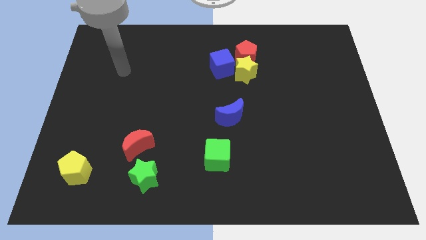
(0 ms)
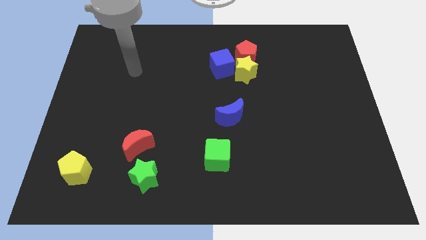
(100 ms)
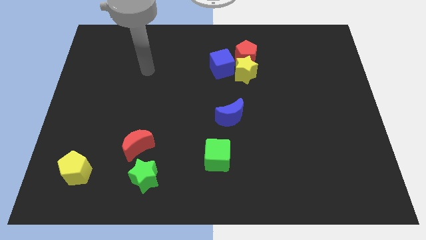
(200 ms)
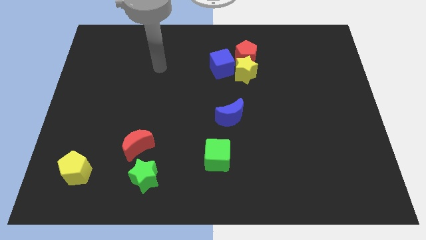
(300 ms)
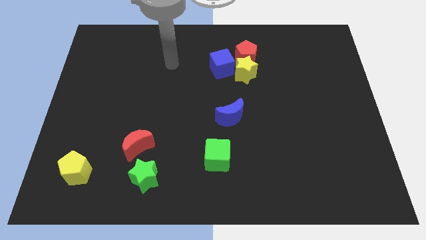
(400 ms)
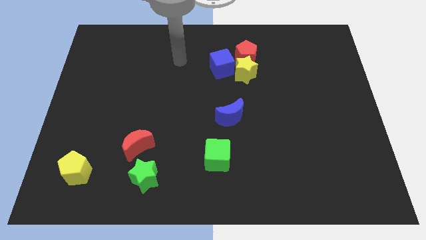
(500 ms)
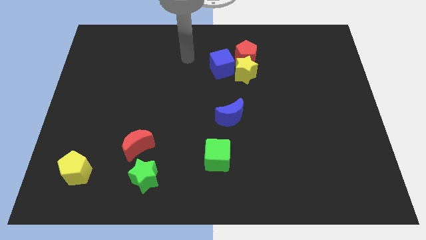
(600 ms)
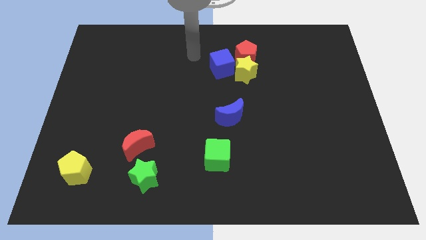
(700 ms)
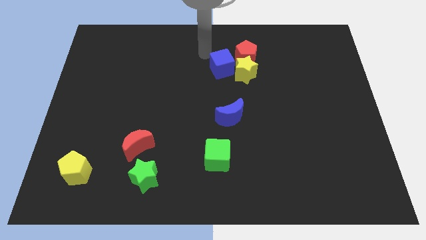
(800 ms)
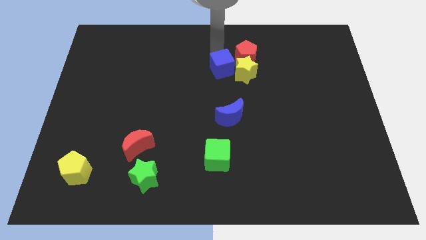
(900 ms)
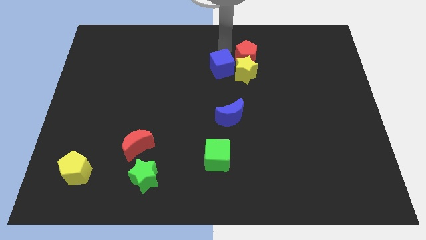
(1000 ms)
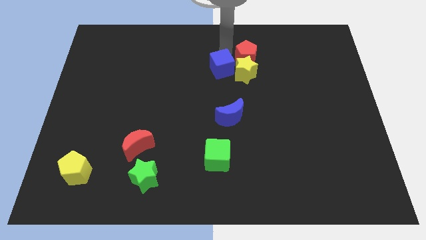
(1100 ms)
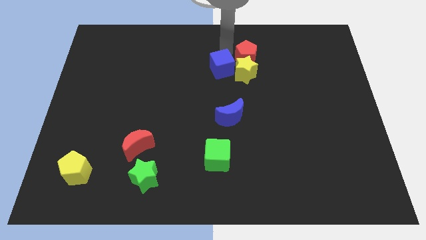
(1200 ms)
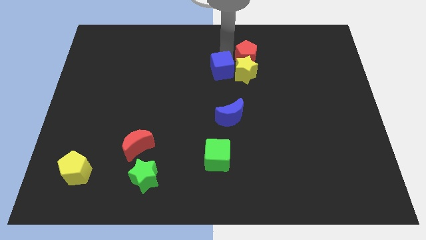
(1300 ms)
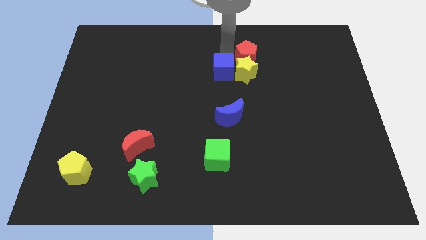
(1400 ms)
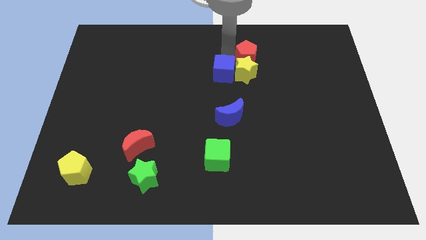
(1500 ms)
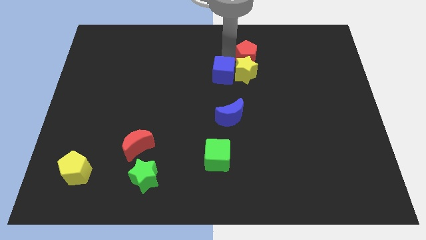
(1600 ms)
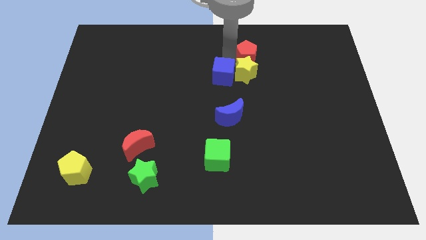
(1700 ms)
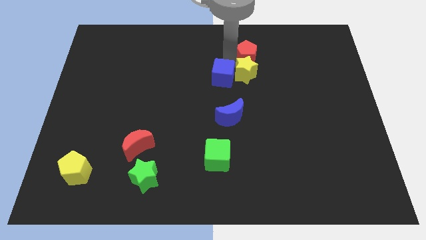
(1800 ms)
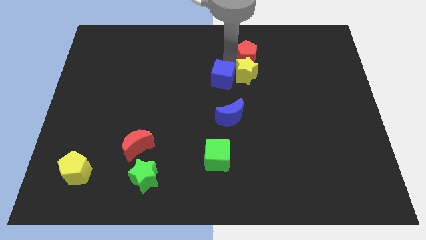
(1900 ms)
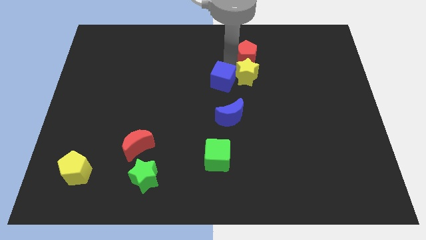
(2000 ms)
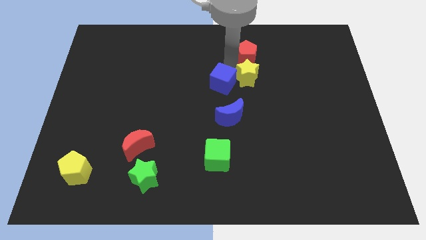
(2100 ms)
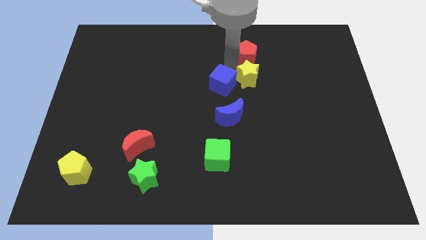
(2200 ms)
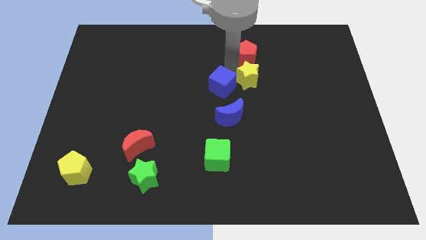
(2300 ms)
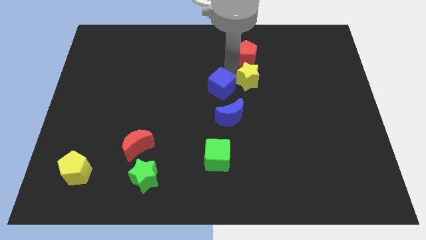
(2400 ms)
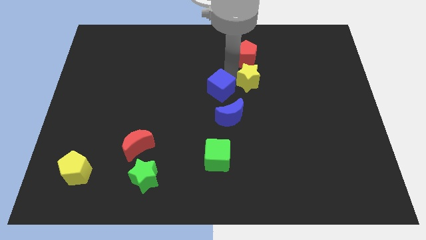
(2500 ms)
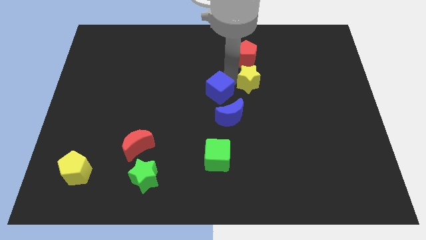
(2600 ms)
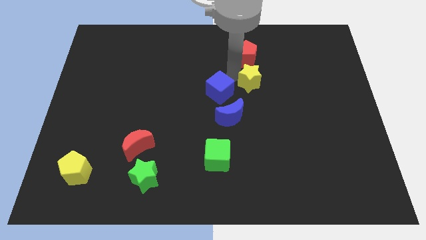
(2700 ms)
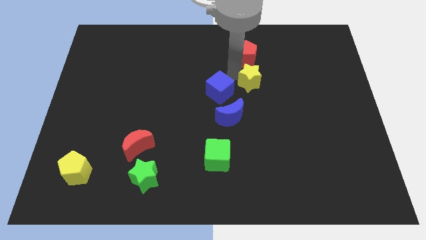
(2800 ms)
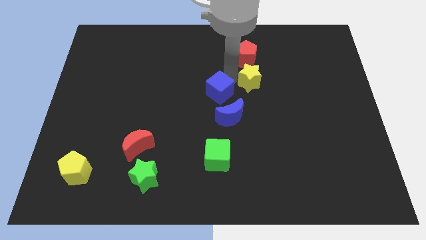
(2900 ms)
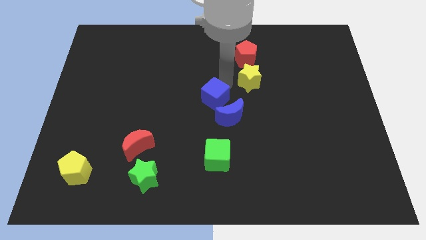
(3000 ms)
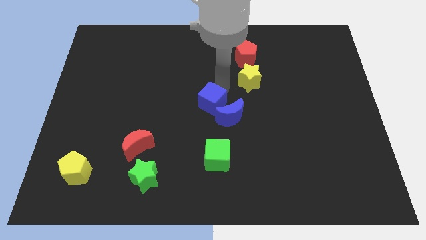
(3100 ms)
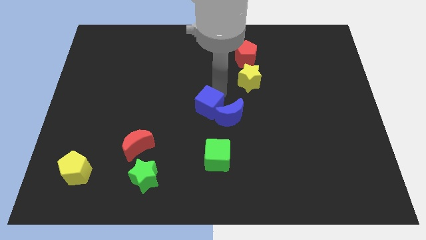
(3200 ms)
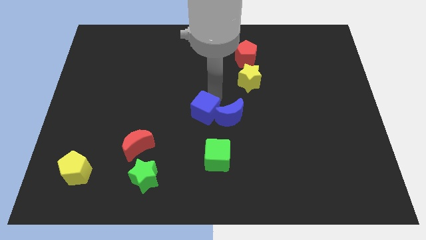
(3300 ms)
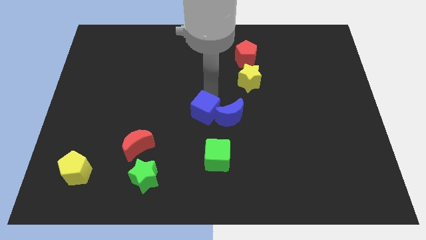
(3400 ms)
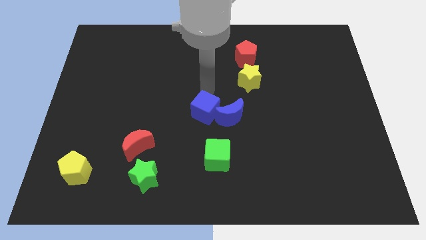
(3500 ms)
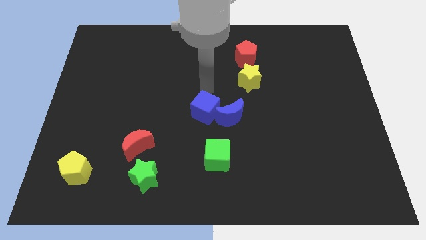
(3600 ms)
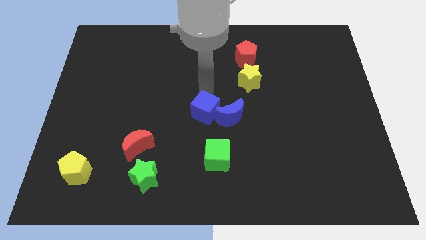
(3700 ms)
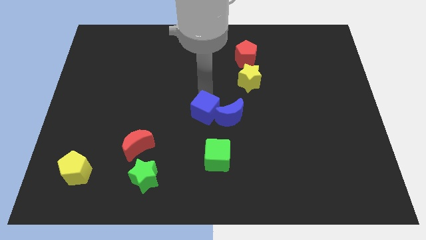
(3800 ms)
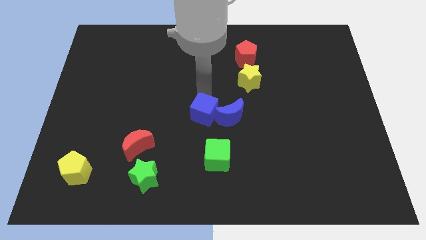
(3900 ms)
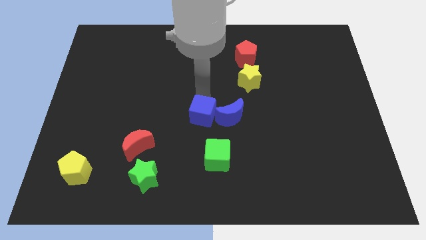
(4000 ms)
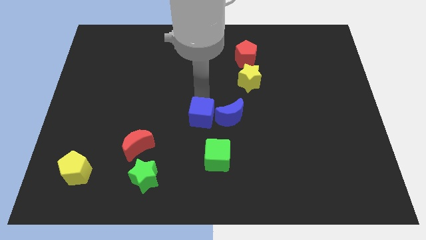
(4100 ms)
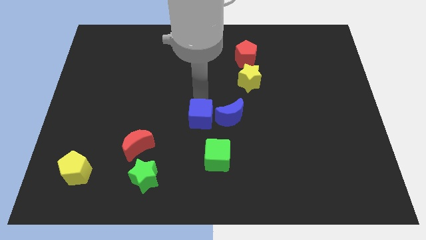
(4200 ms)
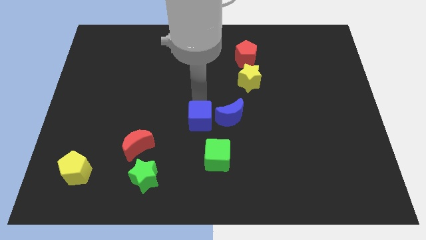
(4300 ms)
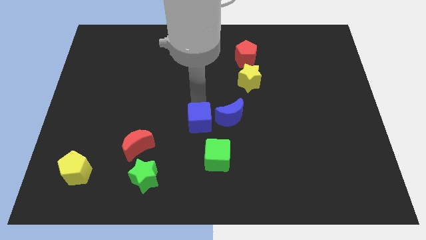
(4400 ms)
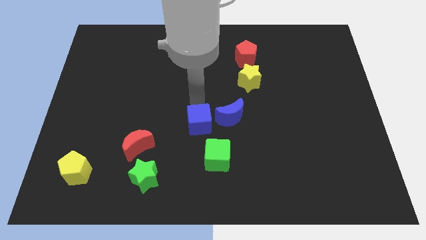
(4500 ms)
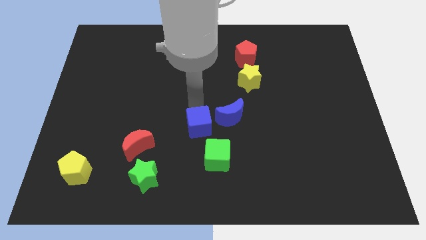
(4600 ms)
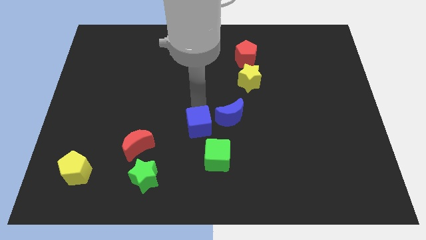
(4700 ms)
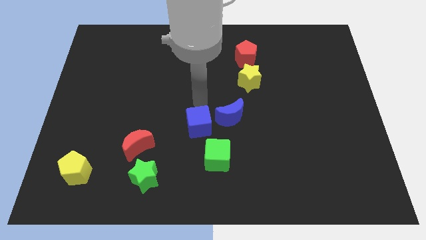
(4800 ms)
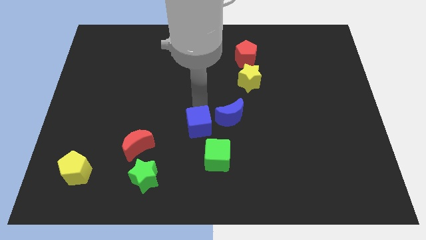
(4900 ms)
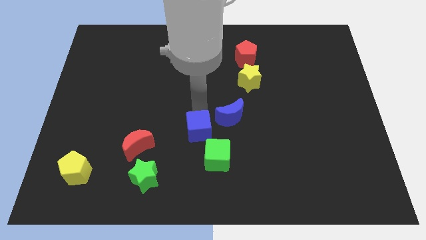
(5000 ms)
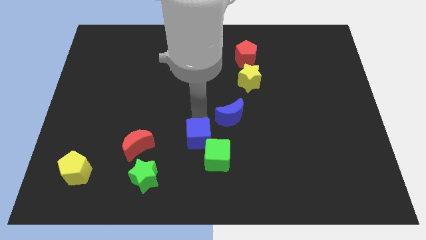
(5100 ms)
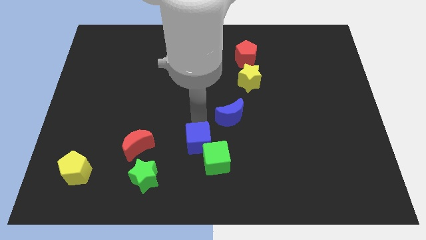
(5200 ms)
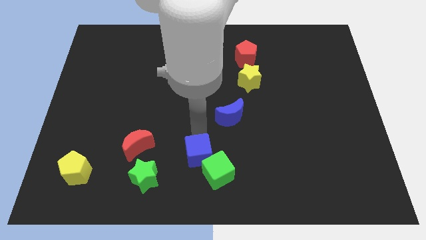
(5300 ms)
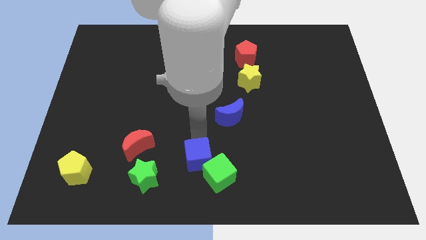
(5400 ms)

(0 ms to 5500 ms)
push the blue cube right of the green star

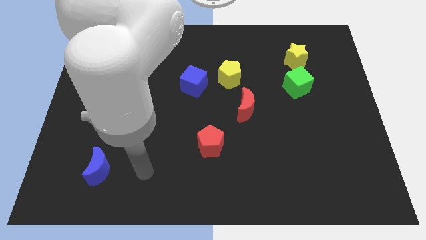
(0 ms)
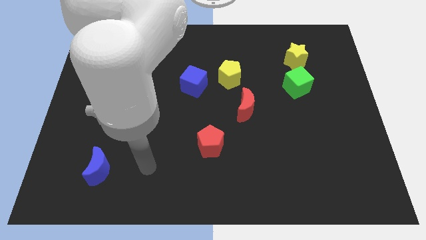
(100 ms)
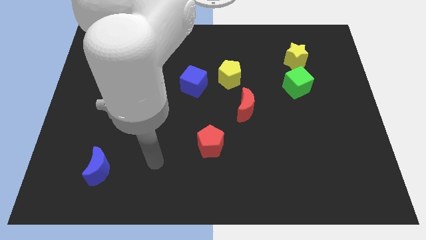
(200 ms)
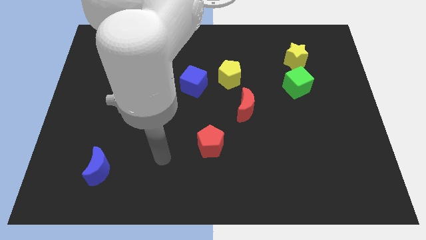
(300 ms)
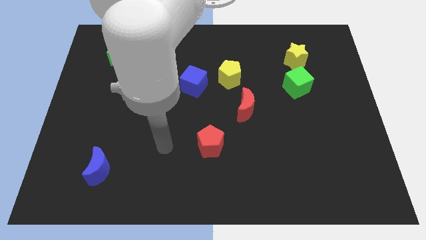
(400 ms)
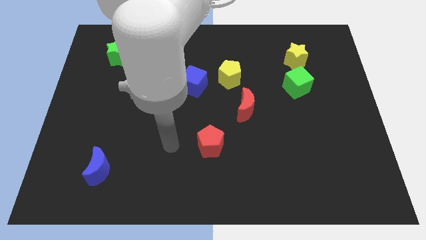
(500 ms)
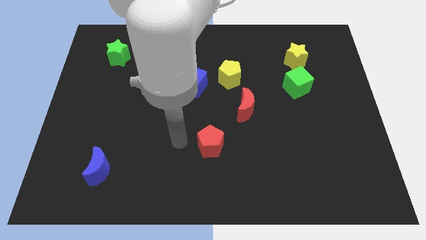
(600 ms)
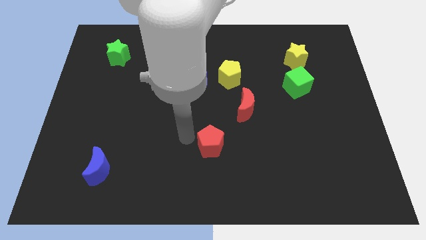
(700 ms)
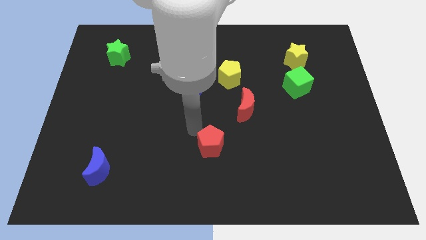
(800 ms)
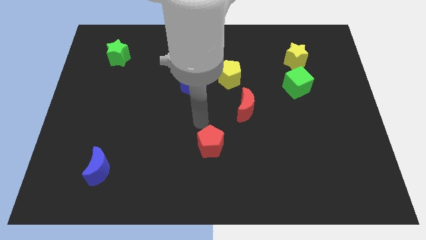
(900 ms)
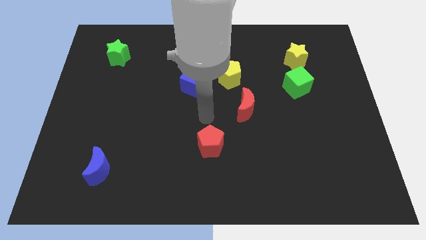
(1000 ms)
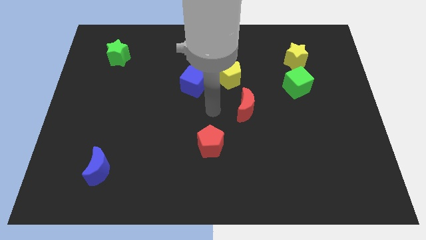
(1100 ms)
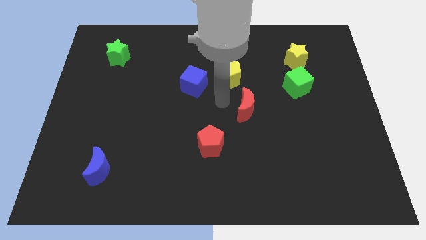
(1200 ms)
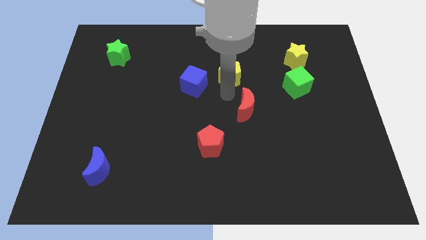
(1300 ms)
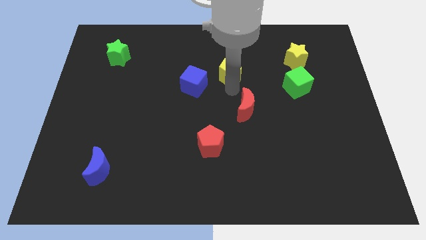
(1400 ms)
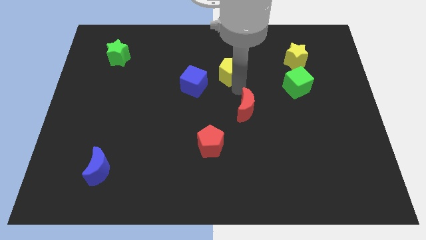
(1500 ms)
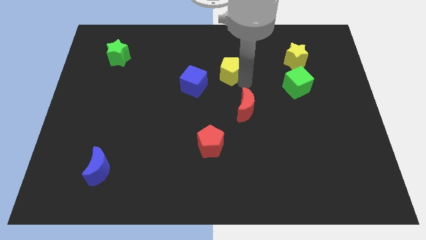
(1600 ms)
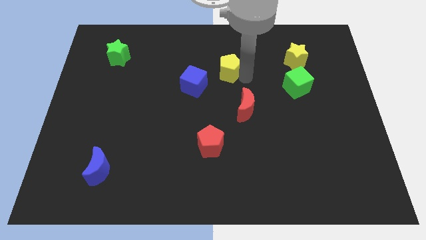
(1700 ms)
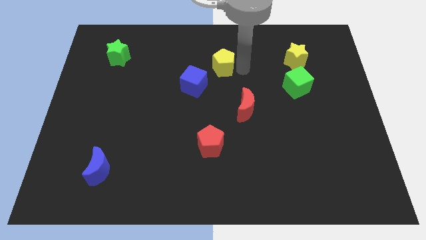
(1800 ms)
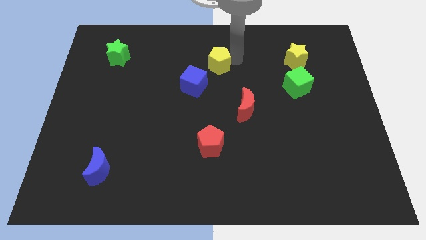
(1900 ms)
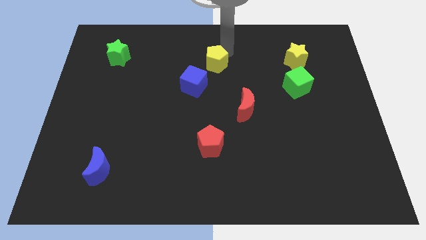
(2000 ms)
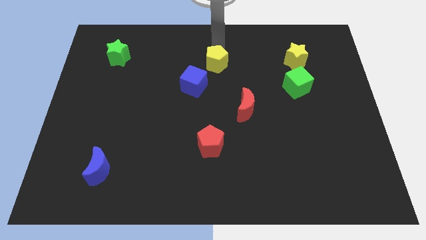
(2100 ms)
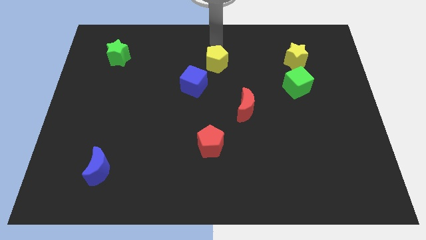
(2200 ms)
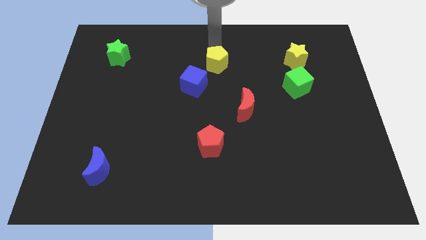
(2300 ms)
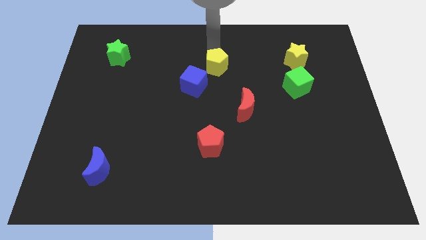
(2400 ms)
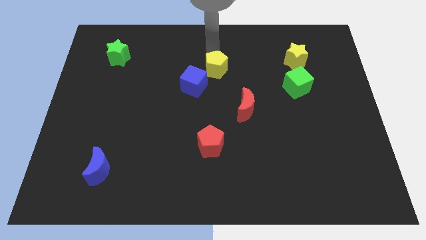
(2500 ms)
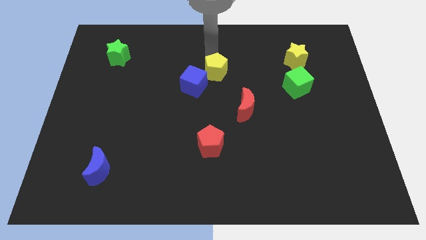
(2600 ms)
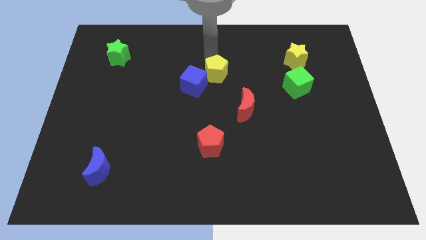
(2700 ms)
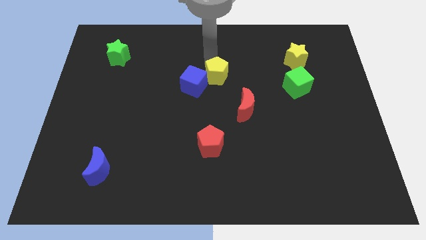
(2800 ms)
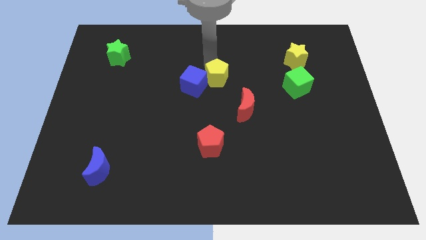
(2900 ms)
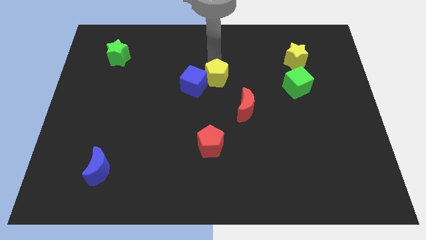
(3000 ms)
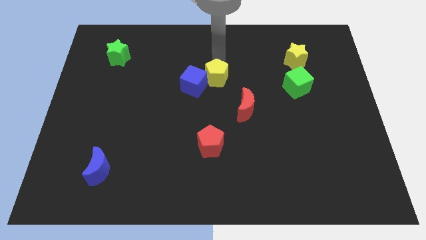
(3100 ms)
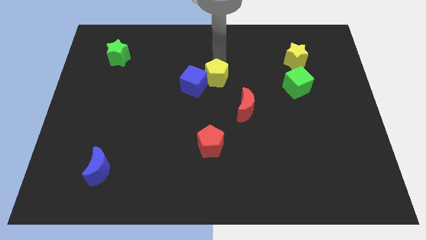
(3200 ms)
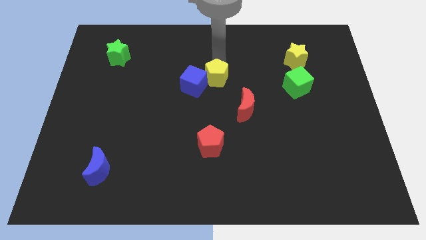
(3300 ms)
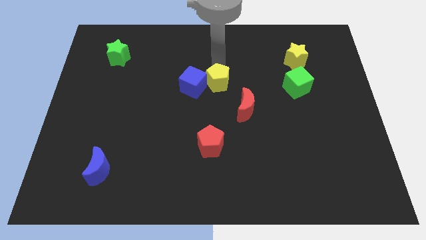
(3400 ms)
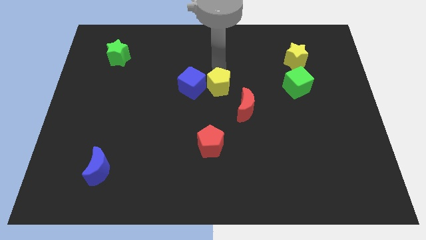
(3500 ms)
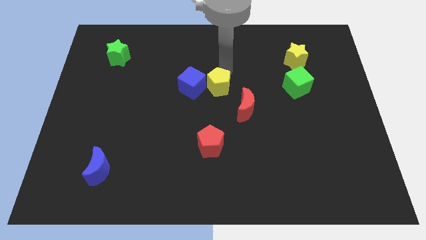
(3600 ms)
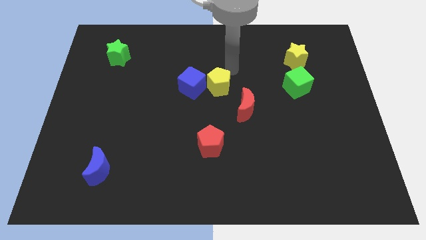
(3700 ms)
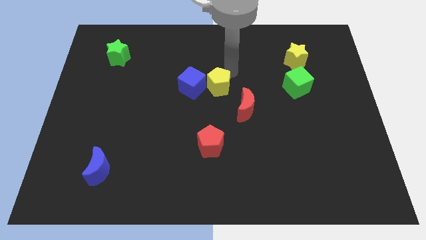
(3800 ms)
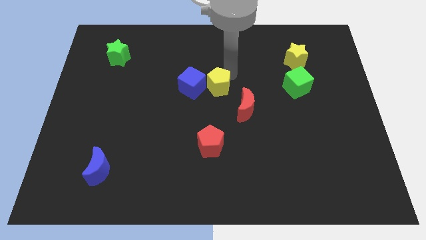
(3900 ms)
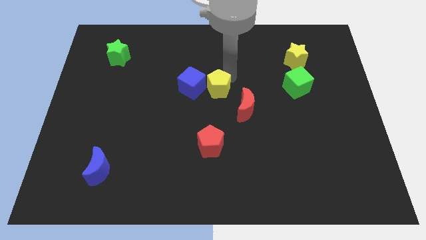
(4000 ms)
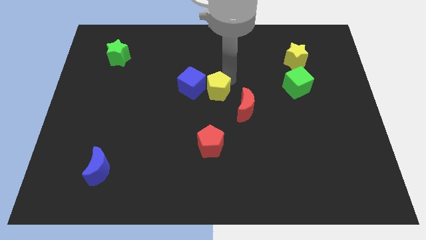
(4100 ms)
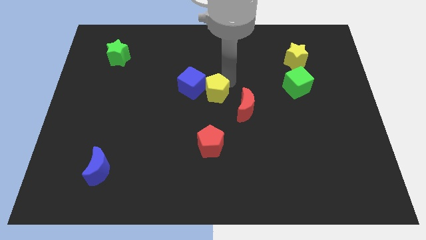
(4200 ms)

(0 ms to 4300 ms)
move the yellow pentagon to the left side of the red moon
